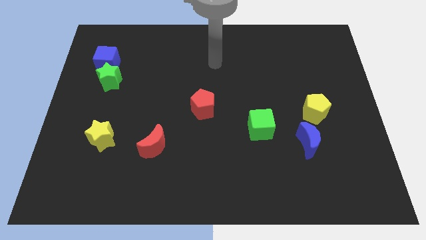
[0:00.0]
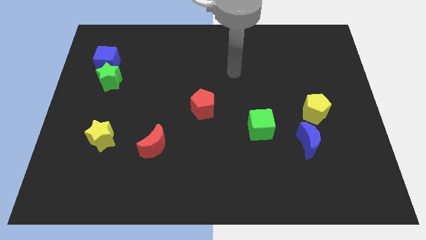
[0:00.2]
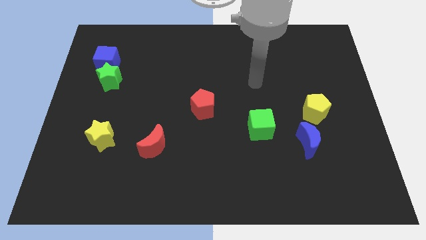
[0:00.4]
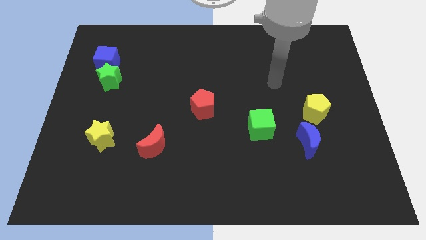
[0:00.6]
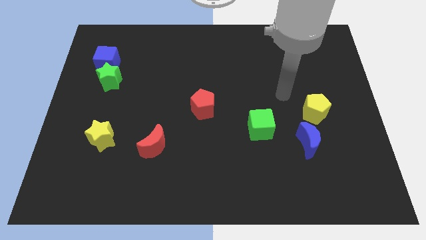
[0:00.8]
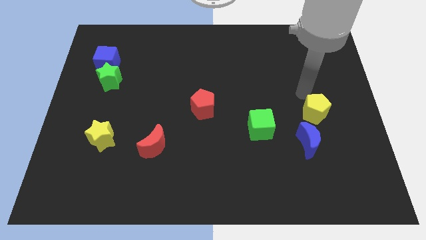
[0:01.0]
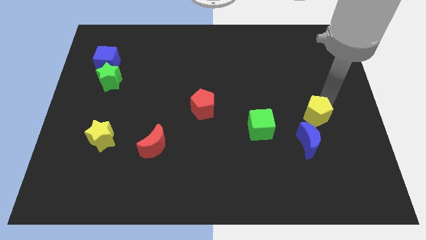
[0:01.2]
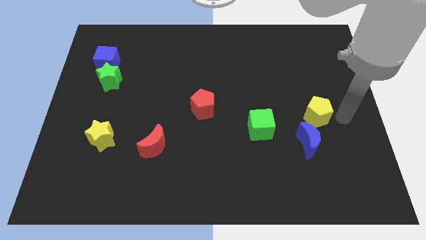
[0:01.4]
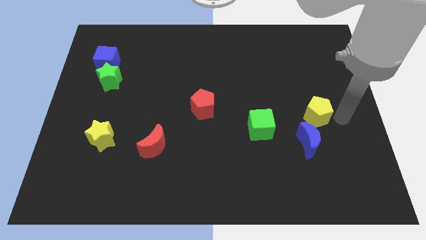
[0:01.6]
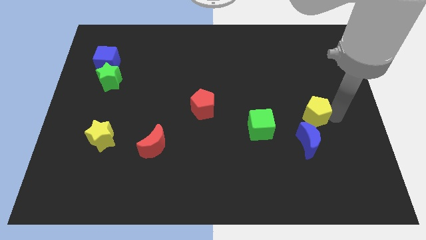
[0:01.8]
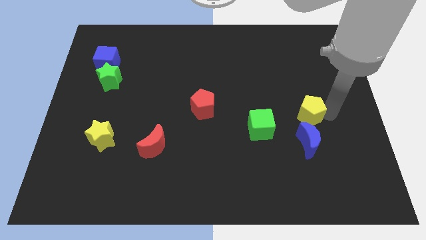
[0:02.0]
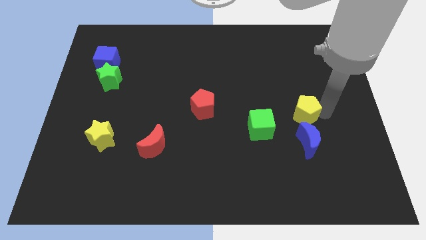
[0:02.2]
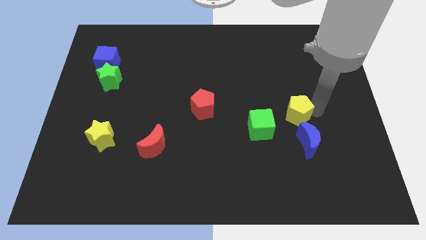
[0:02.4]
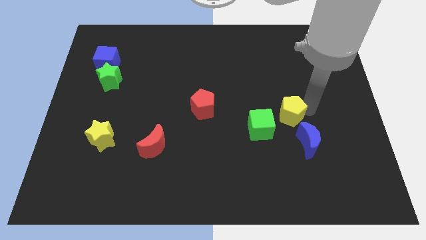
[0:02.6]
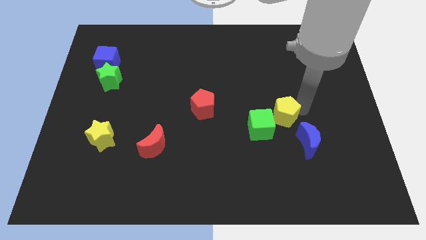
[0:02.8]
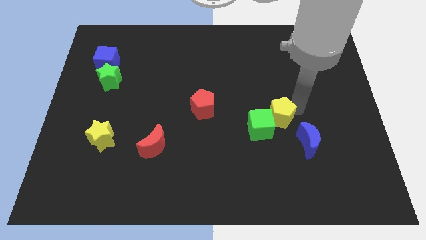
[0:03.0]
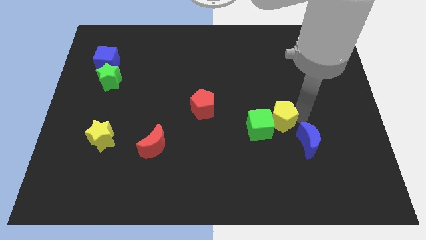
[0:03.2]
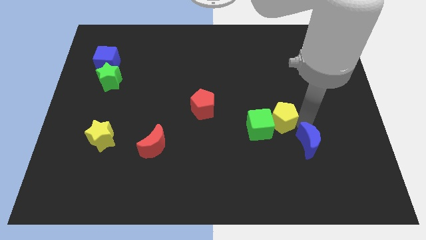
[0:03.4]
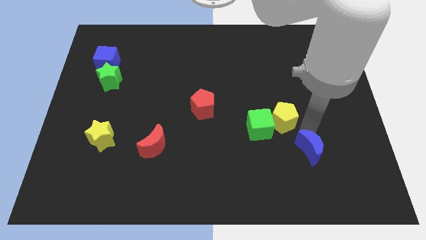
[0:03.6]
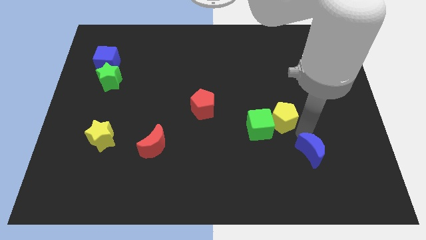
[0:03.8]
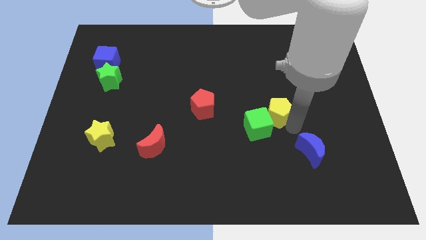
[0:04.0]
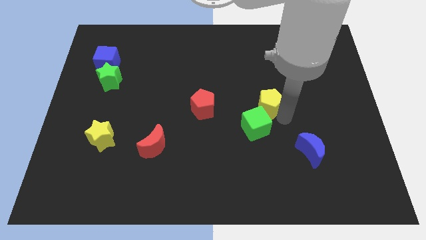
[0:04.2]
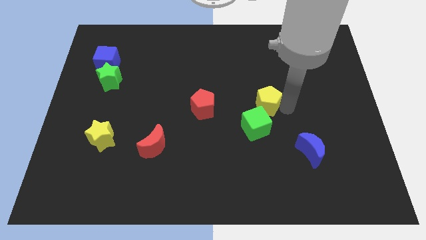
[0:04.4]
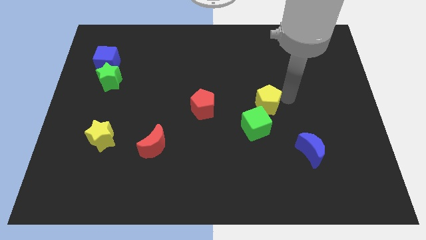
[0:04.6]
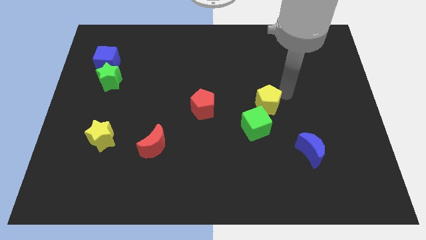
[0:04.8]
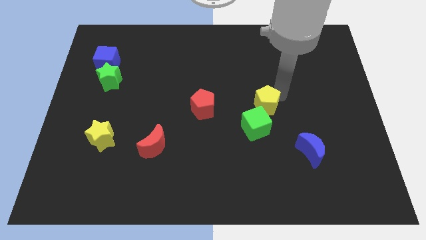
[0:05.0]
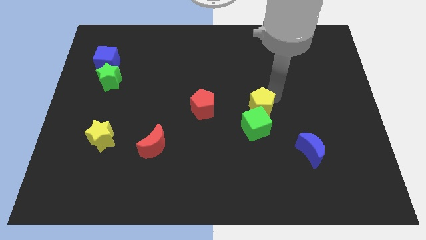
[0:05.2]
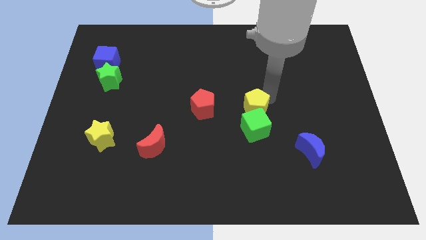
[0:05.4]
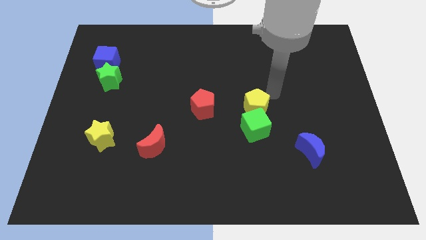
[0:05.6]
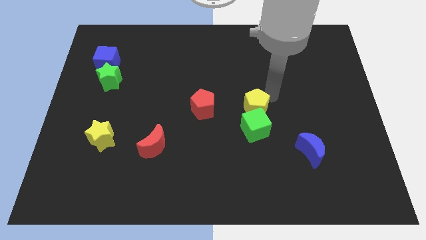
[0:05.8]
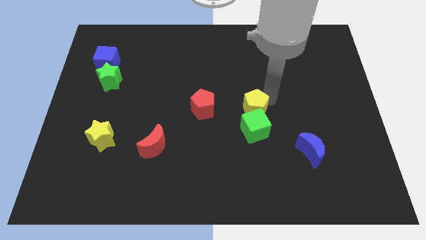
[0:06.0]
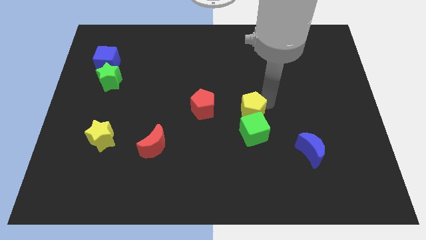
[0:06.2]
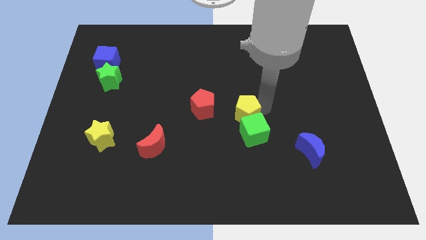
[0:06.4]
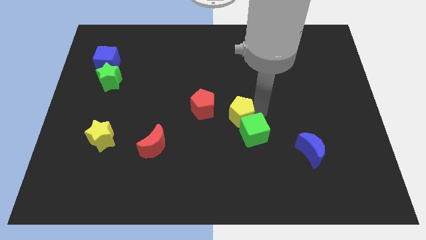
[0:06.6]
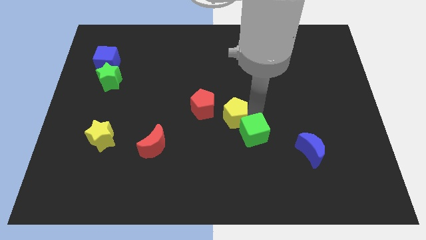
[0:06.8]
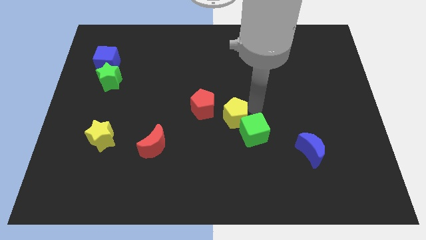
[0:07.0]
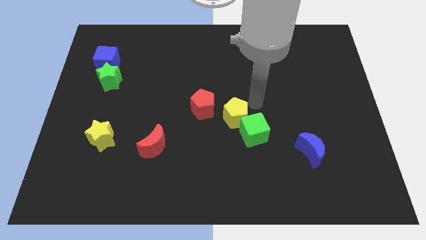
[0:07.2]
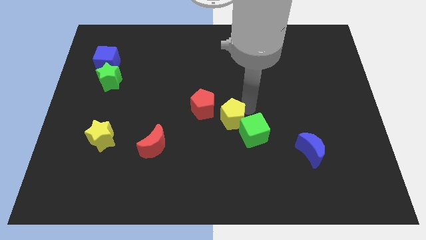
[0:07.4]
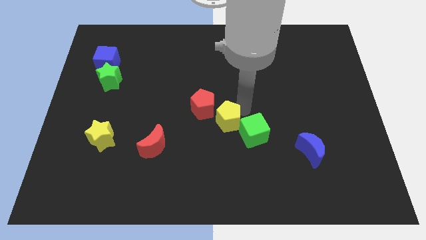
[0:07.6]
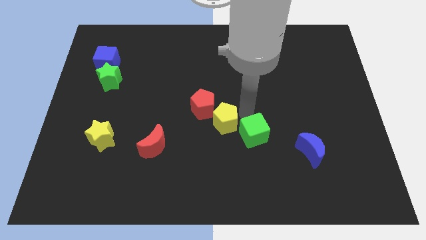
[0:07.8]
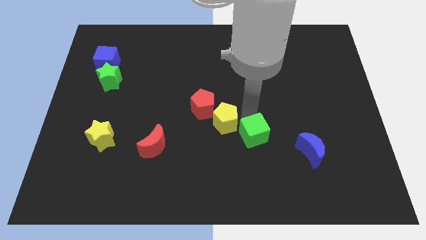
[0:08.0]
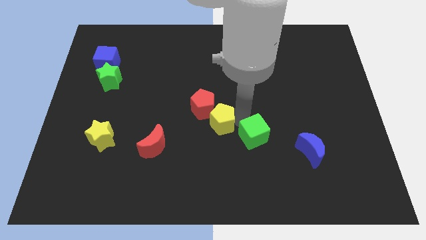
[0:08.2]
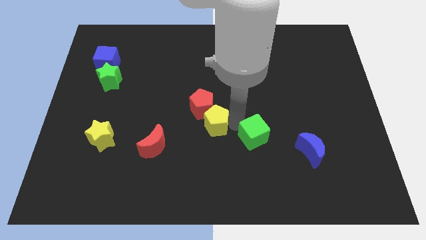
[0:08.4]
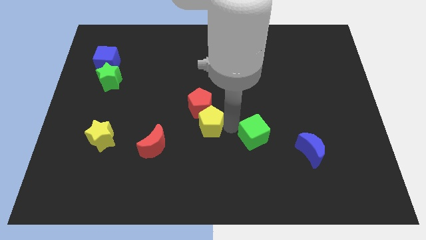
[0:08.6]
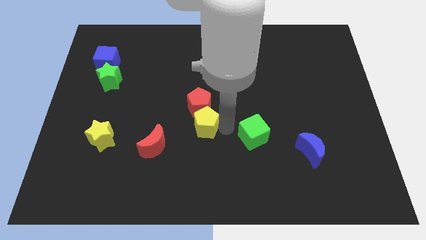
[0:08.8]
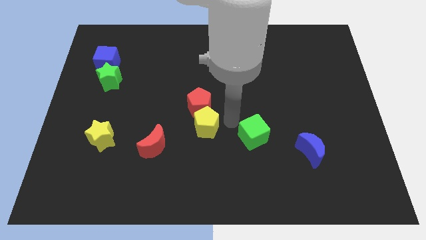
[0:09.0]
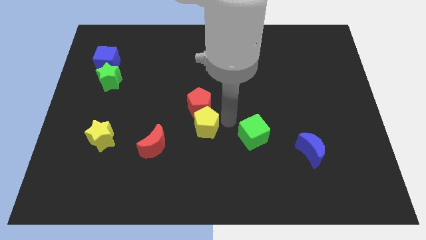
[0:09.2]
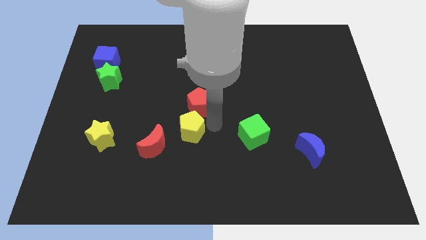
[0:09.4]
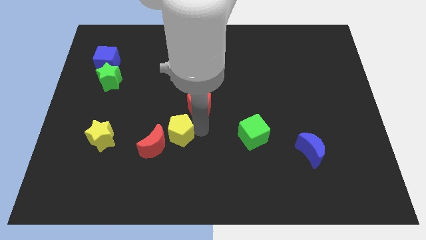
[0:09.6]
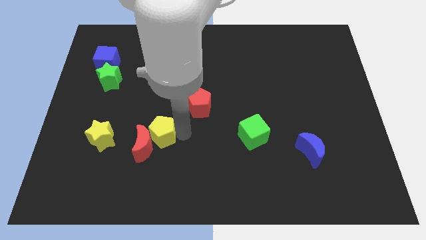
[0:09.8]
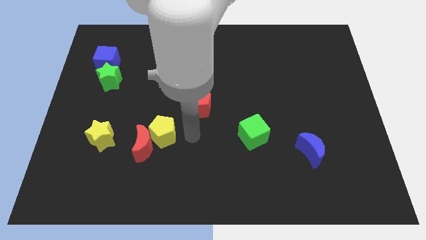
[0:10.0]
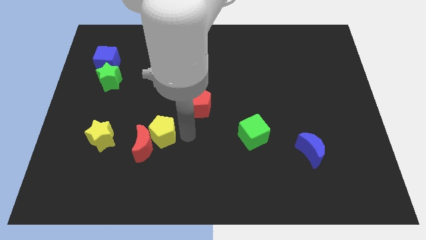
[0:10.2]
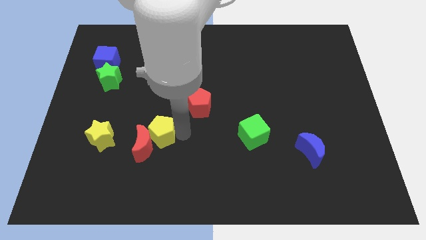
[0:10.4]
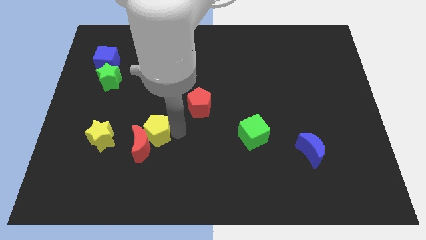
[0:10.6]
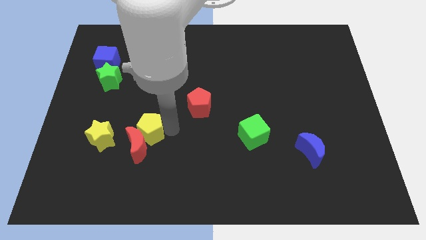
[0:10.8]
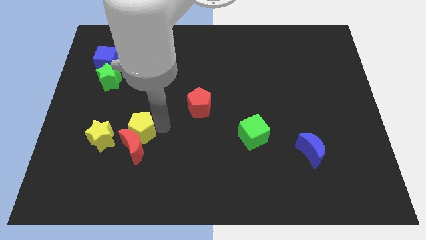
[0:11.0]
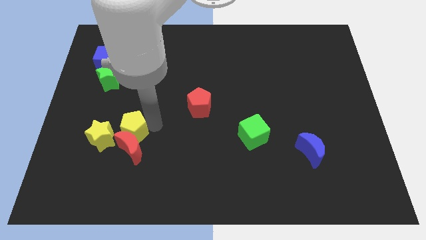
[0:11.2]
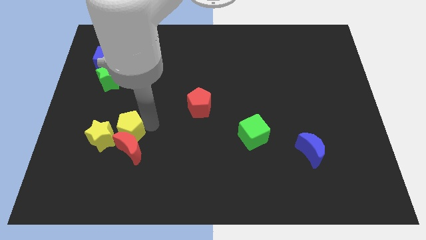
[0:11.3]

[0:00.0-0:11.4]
push the yellow pentagon towards the yellow star

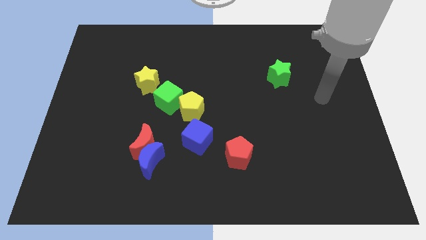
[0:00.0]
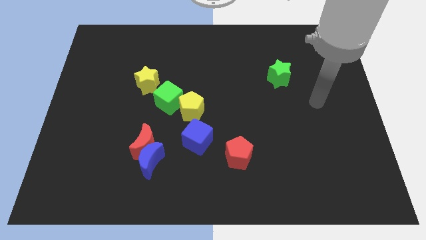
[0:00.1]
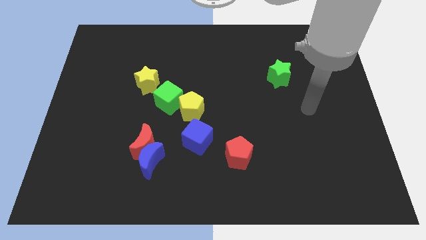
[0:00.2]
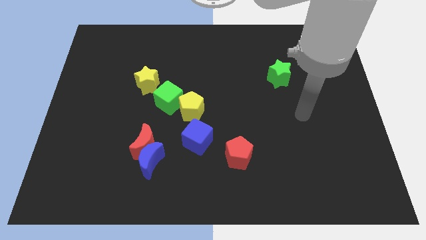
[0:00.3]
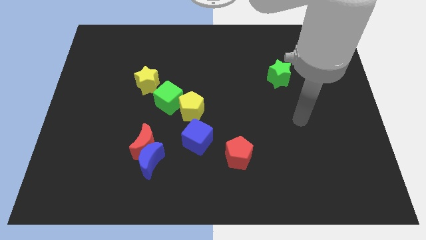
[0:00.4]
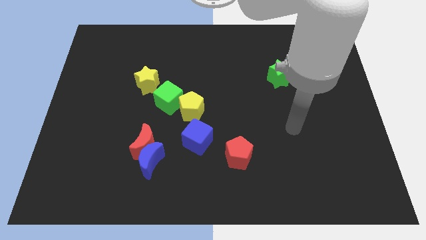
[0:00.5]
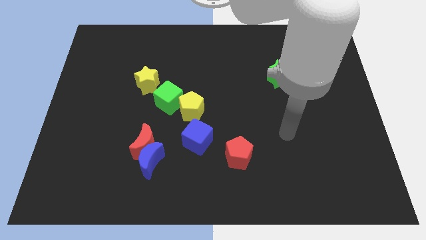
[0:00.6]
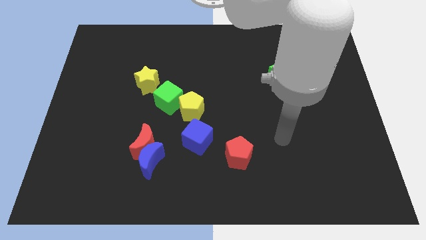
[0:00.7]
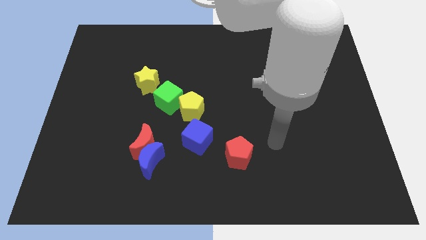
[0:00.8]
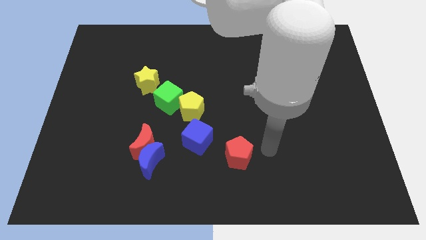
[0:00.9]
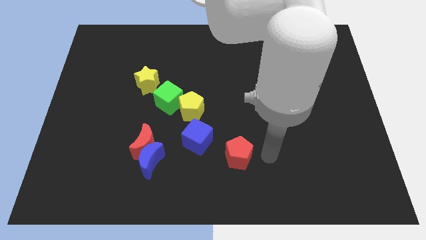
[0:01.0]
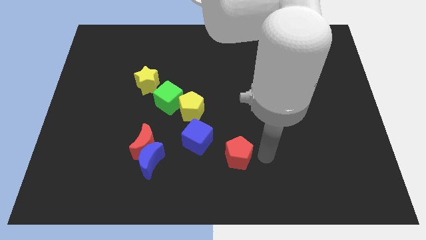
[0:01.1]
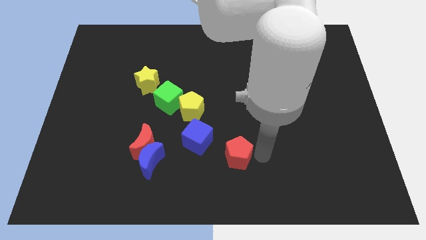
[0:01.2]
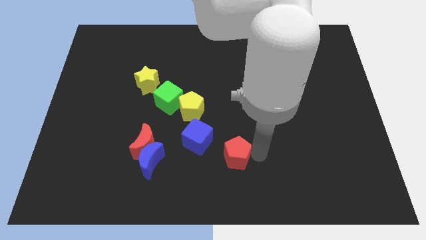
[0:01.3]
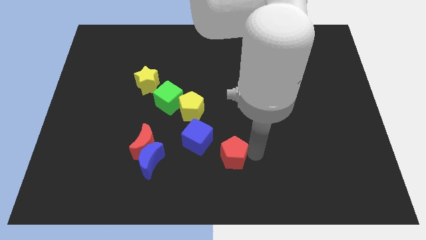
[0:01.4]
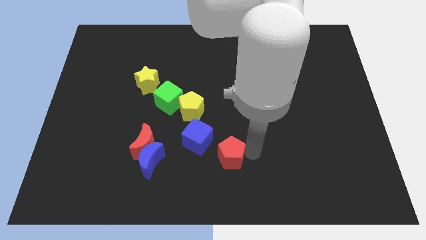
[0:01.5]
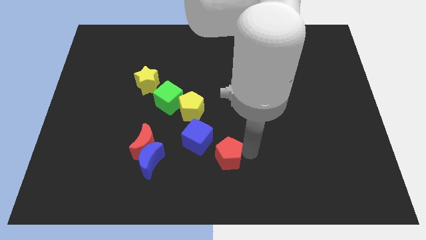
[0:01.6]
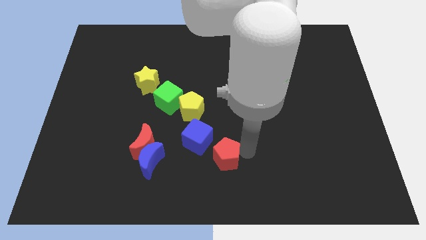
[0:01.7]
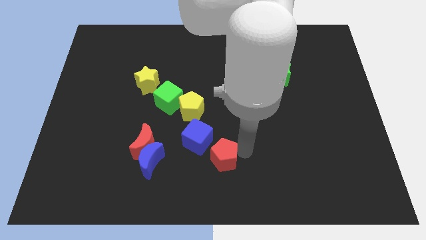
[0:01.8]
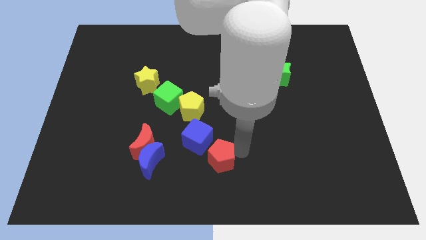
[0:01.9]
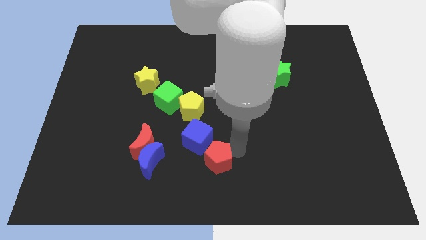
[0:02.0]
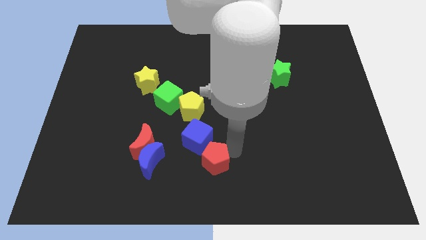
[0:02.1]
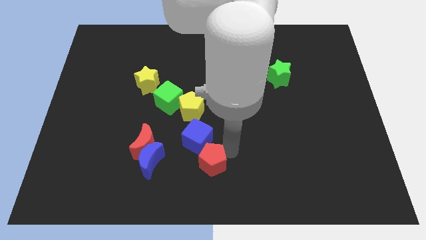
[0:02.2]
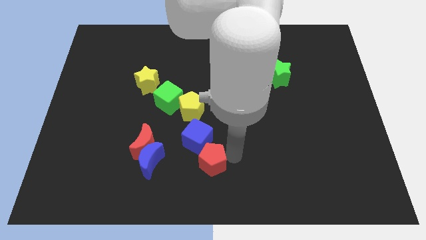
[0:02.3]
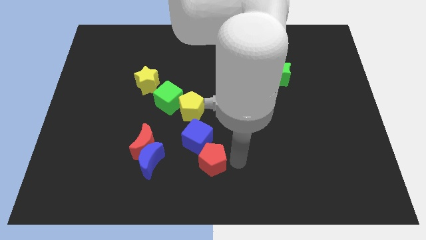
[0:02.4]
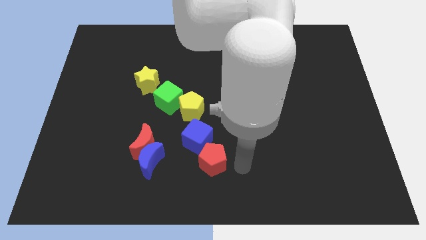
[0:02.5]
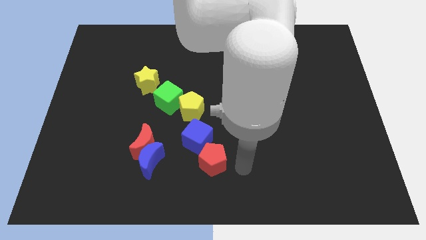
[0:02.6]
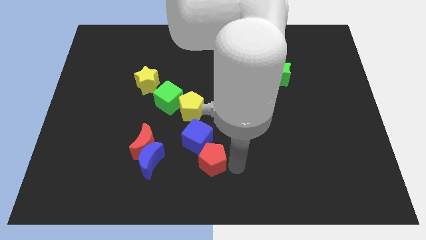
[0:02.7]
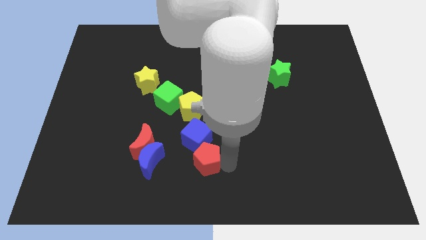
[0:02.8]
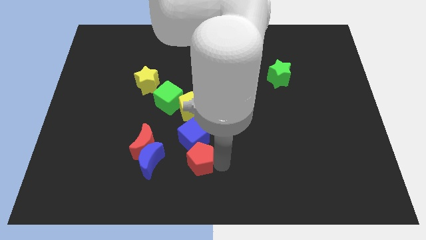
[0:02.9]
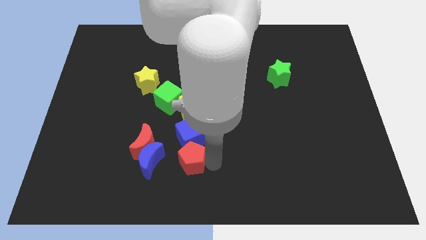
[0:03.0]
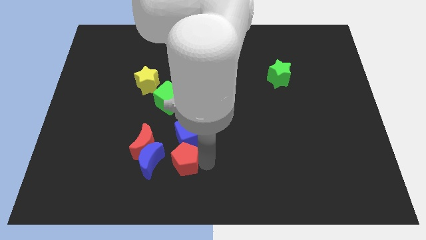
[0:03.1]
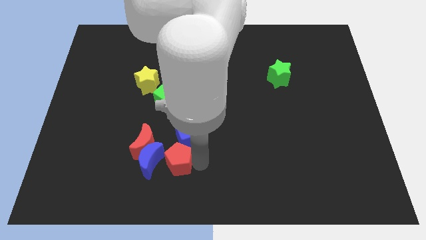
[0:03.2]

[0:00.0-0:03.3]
move the red pentagon to the blue moon
